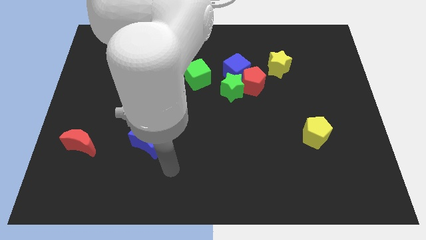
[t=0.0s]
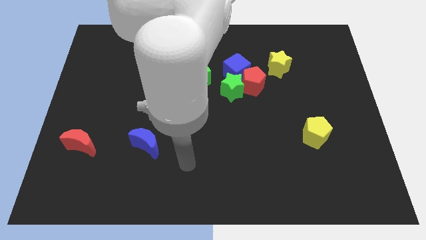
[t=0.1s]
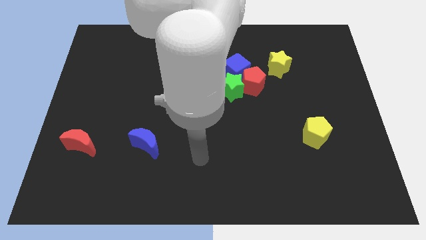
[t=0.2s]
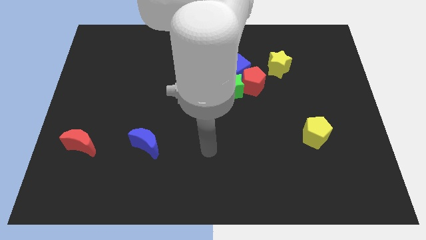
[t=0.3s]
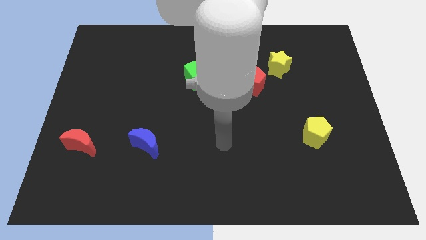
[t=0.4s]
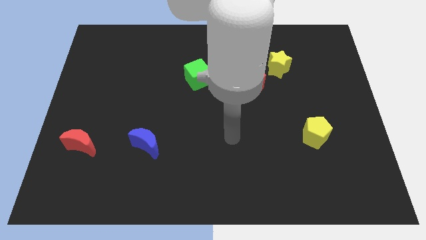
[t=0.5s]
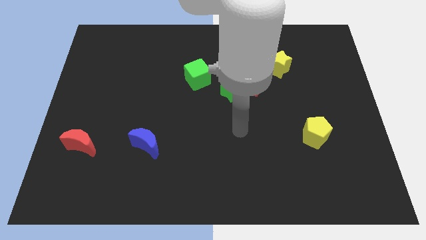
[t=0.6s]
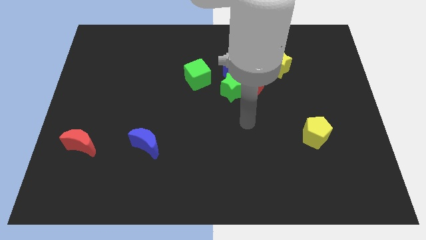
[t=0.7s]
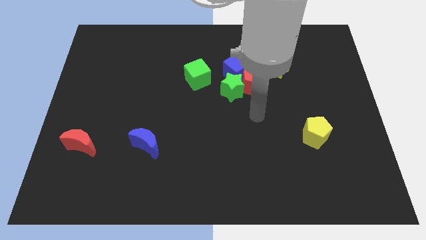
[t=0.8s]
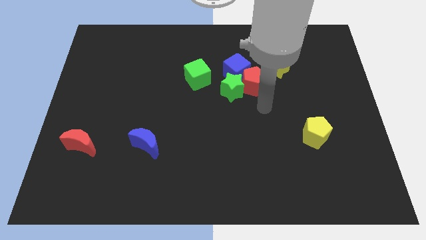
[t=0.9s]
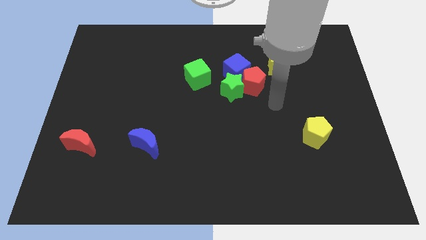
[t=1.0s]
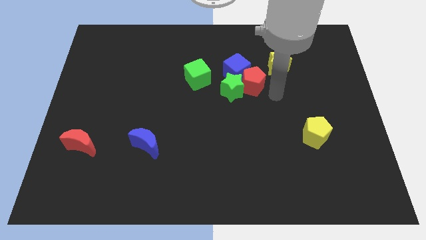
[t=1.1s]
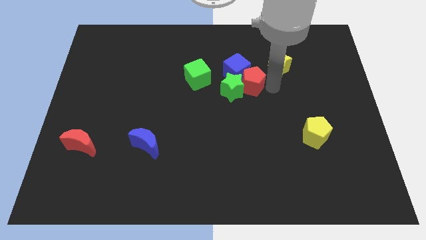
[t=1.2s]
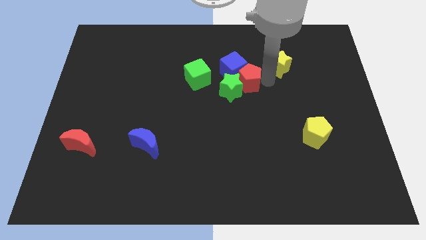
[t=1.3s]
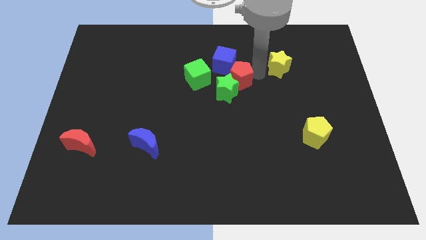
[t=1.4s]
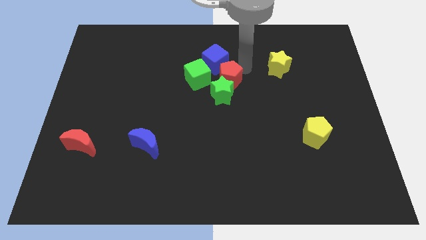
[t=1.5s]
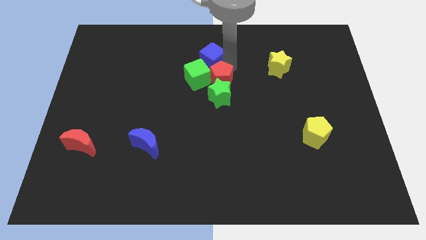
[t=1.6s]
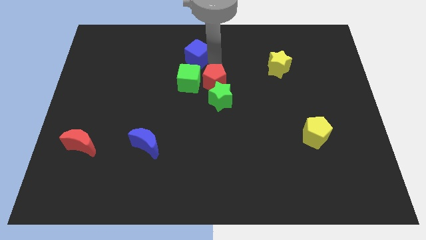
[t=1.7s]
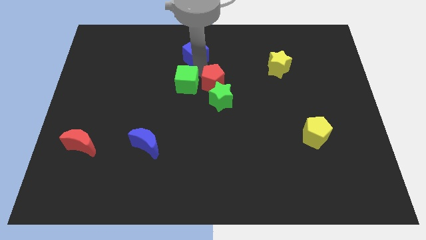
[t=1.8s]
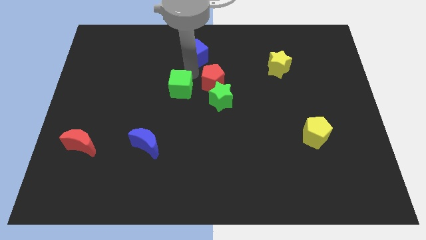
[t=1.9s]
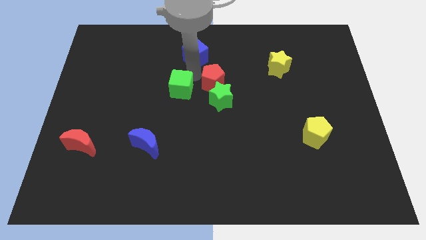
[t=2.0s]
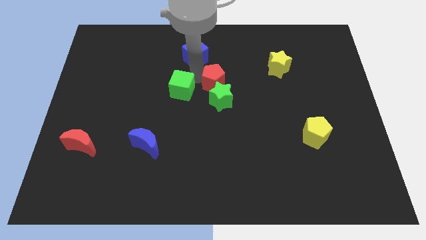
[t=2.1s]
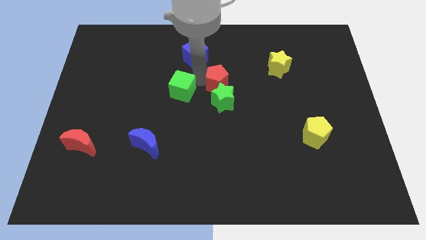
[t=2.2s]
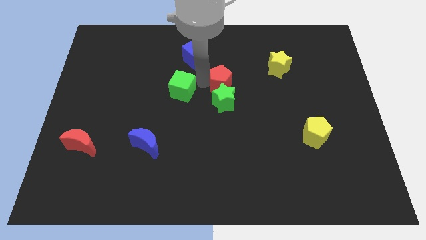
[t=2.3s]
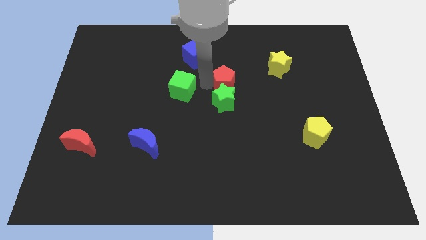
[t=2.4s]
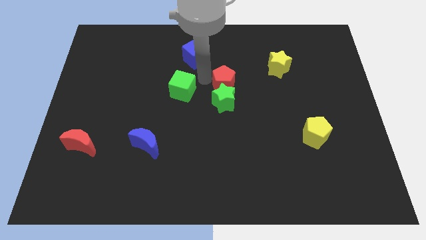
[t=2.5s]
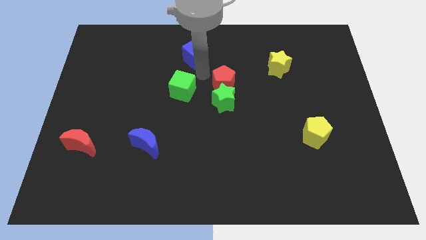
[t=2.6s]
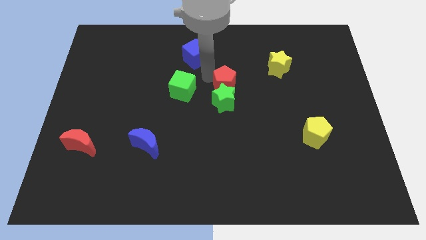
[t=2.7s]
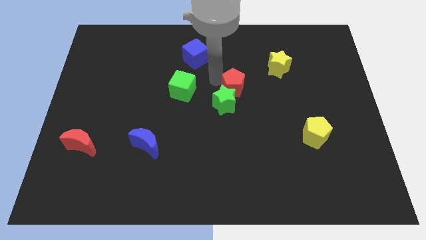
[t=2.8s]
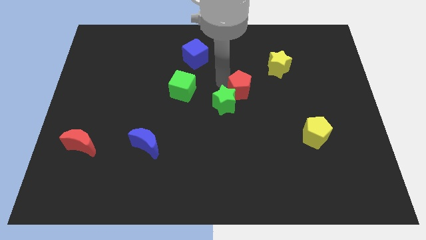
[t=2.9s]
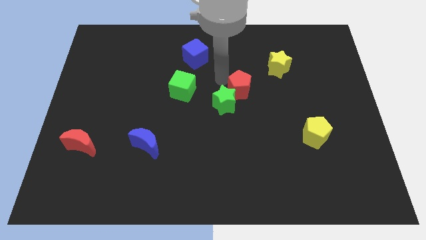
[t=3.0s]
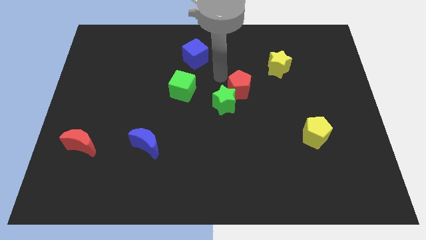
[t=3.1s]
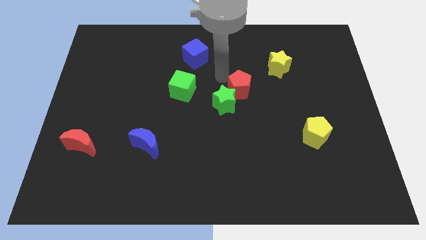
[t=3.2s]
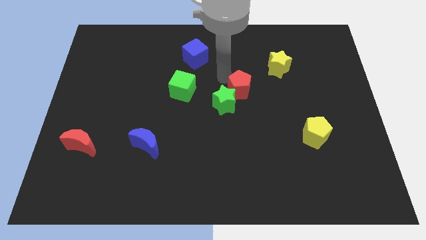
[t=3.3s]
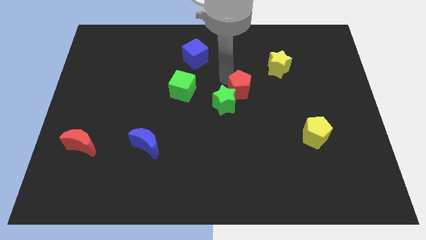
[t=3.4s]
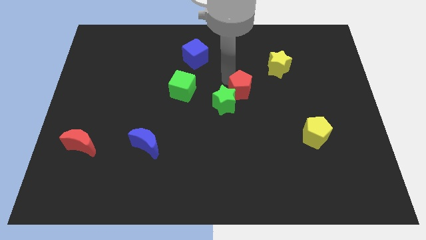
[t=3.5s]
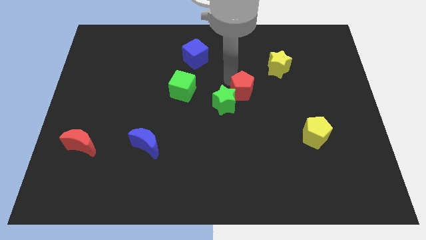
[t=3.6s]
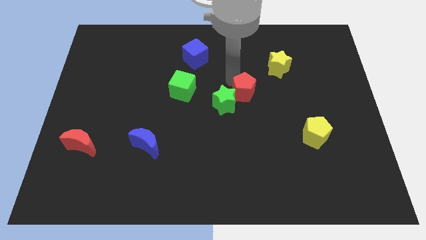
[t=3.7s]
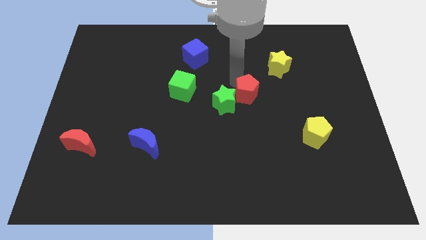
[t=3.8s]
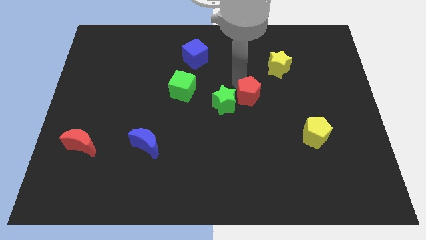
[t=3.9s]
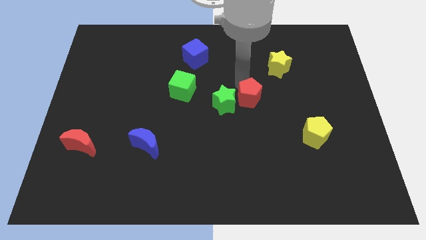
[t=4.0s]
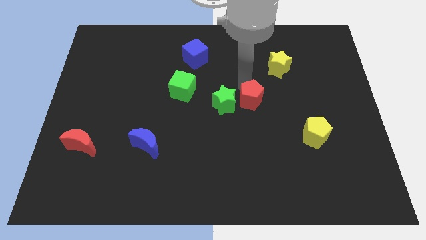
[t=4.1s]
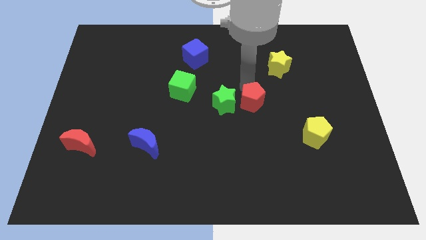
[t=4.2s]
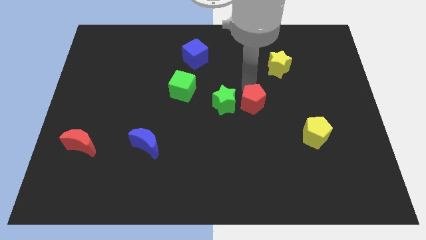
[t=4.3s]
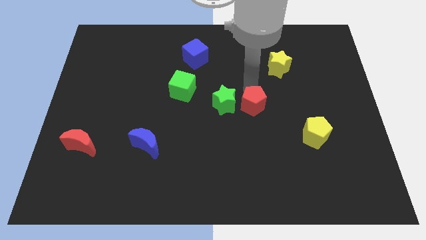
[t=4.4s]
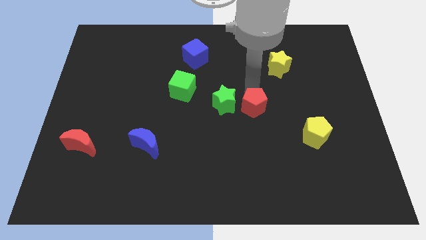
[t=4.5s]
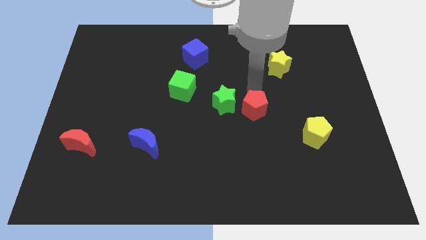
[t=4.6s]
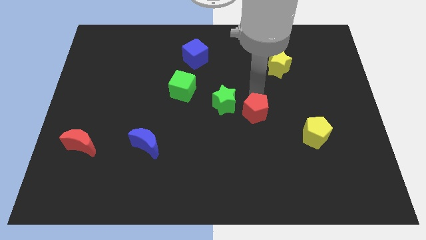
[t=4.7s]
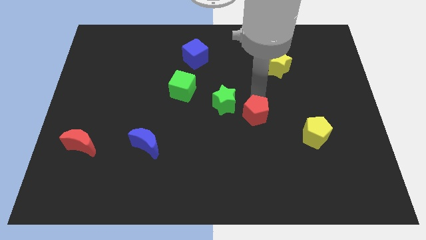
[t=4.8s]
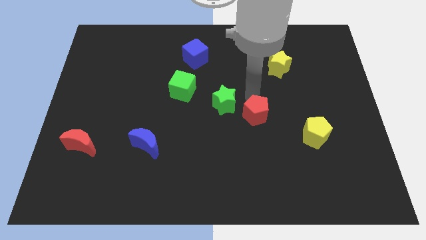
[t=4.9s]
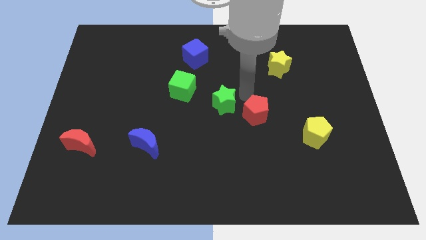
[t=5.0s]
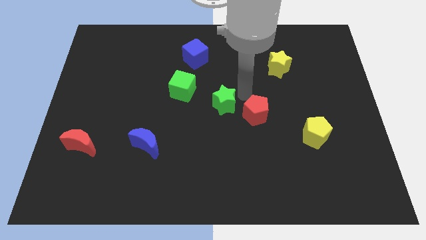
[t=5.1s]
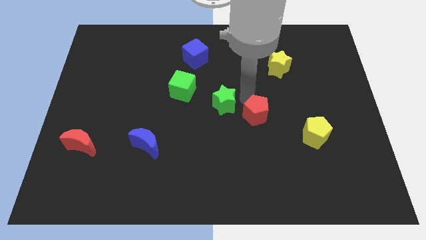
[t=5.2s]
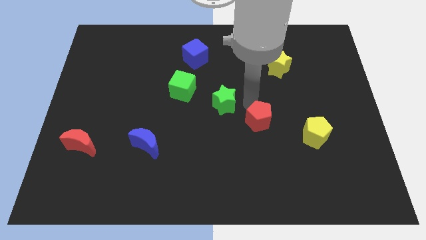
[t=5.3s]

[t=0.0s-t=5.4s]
put the red pentagon left of the yellow pentagon

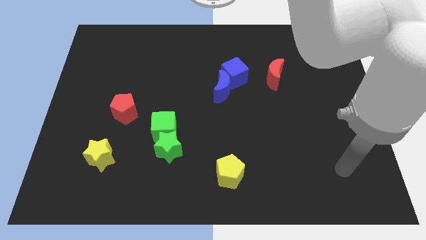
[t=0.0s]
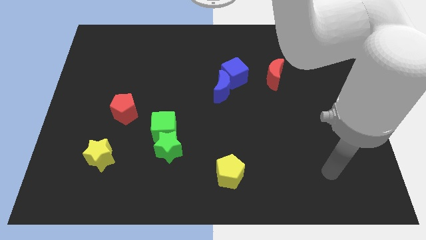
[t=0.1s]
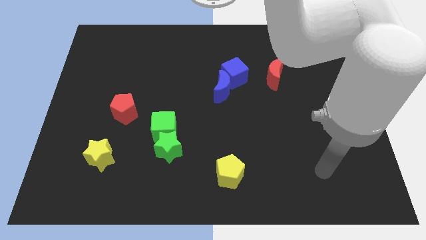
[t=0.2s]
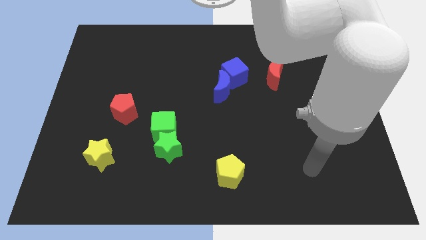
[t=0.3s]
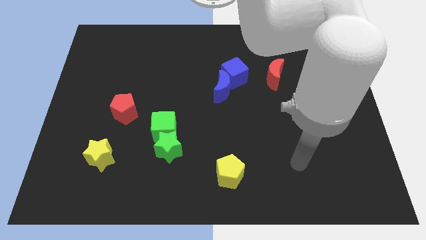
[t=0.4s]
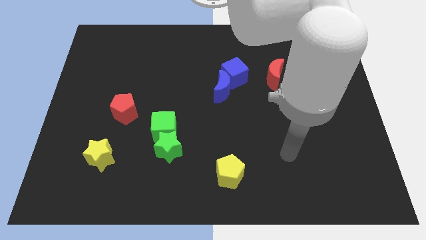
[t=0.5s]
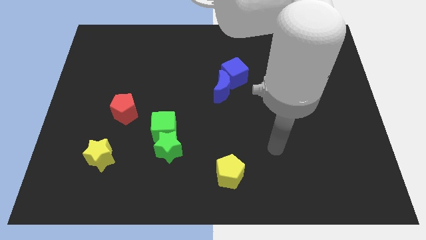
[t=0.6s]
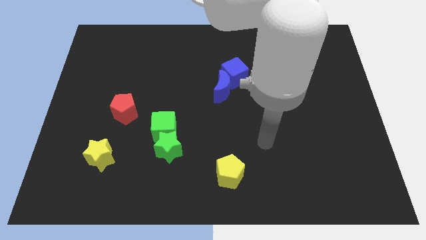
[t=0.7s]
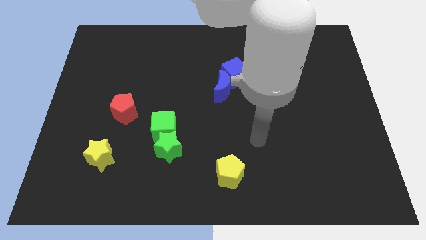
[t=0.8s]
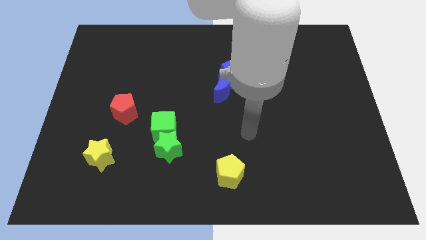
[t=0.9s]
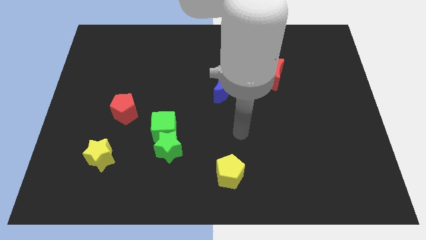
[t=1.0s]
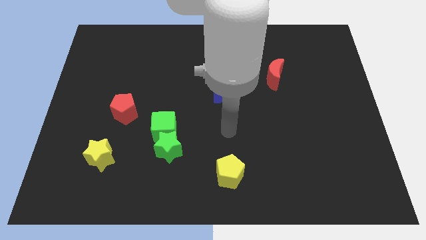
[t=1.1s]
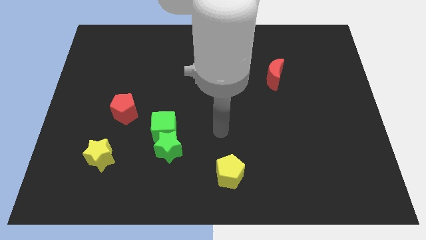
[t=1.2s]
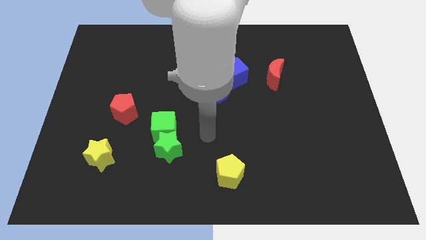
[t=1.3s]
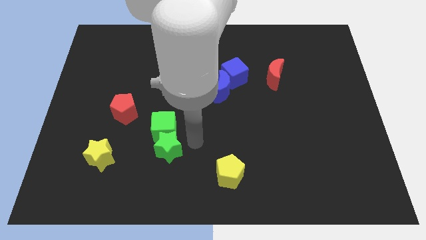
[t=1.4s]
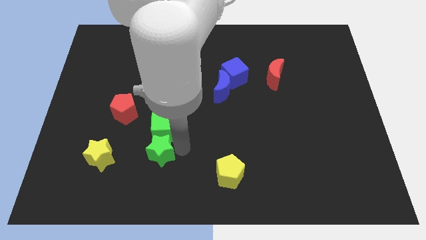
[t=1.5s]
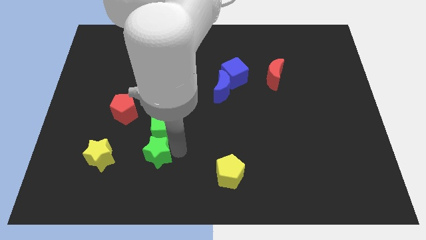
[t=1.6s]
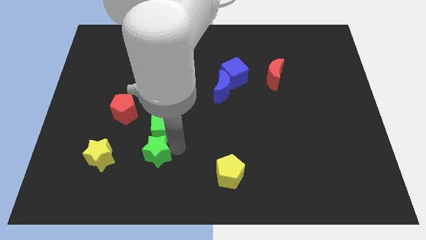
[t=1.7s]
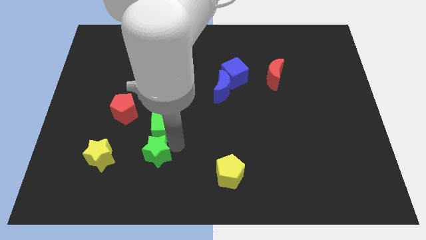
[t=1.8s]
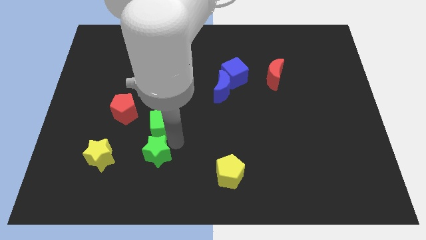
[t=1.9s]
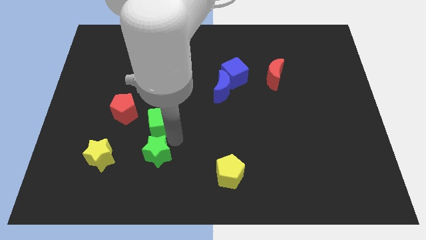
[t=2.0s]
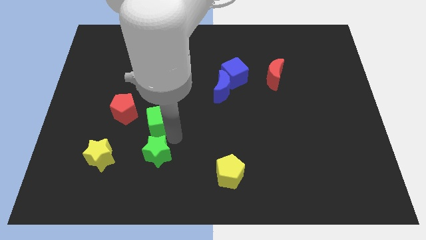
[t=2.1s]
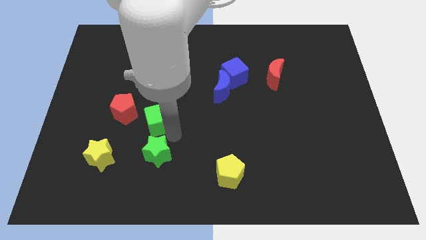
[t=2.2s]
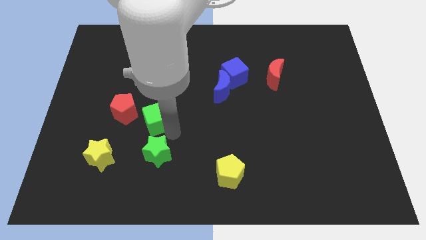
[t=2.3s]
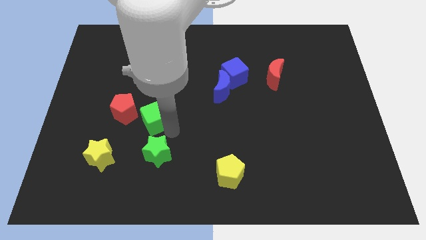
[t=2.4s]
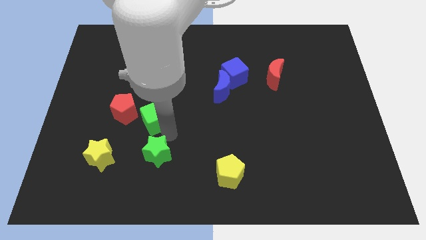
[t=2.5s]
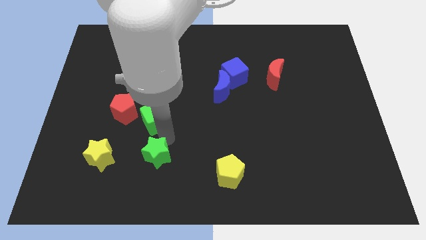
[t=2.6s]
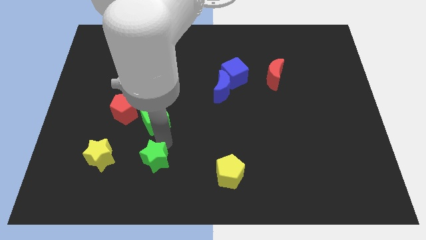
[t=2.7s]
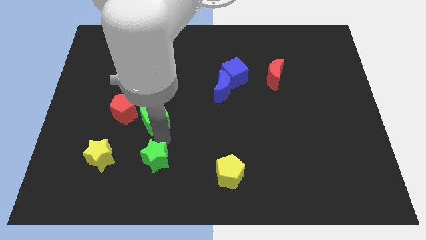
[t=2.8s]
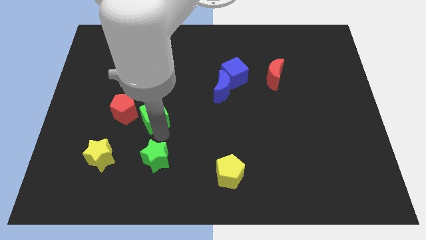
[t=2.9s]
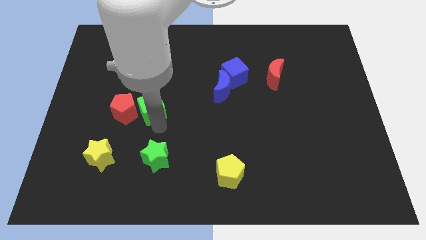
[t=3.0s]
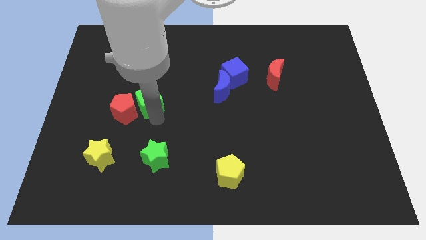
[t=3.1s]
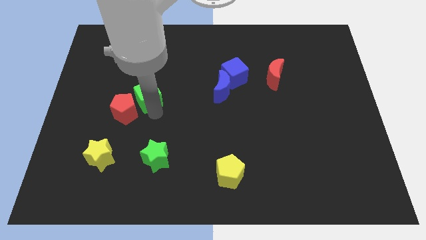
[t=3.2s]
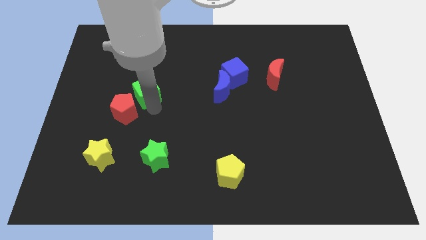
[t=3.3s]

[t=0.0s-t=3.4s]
slide the green cube above the red pentagon
